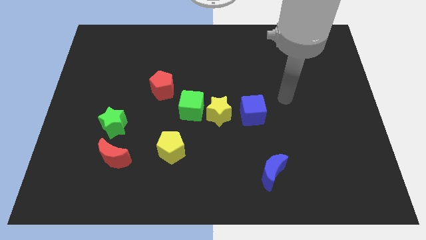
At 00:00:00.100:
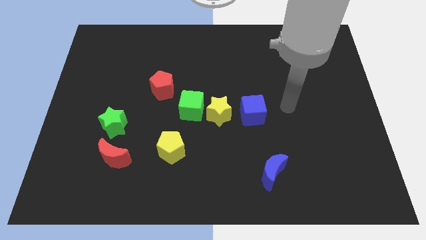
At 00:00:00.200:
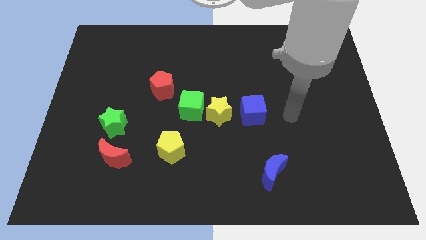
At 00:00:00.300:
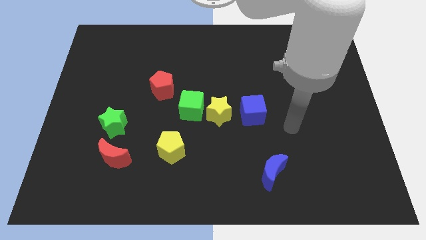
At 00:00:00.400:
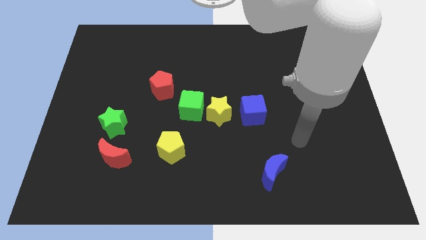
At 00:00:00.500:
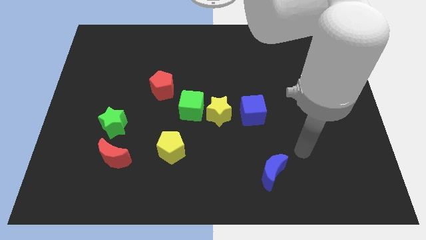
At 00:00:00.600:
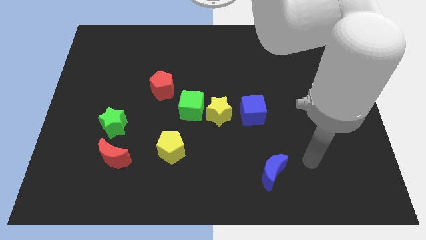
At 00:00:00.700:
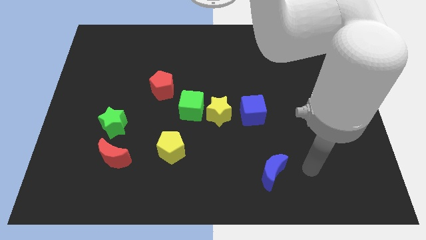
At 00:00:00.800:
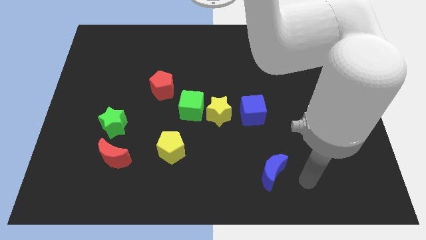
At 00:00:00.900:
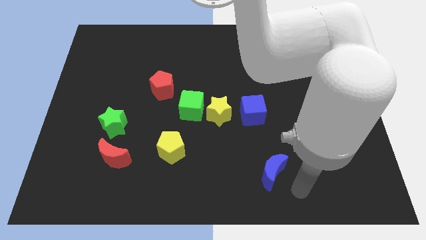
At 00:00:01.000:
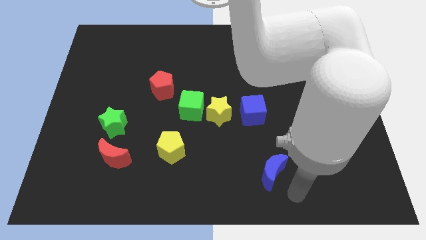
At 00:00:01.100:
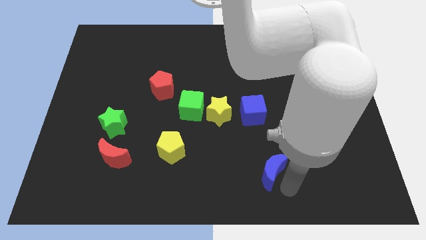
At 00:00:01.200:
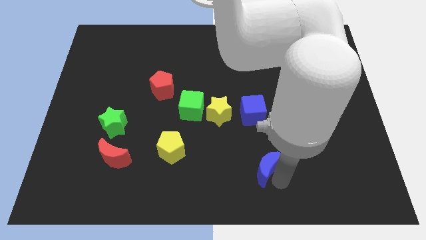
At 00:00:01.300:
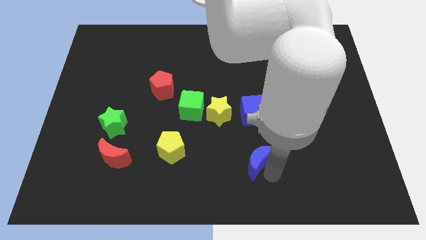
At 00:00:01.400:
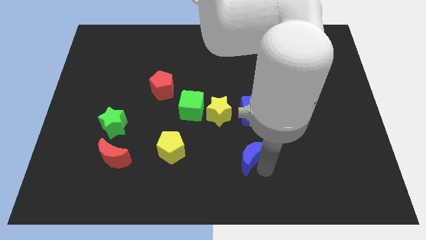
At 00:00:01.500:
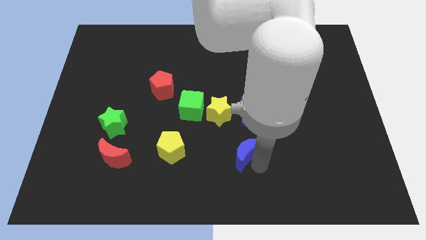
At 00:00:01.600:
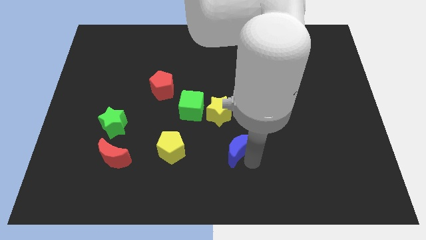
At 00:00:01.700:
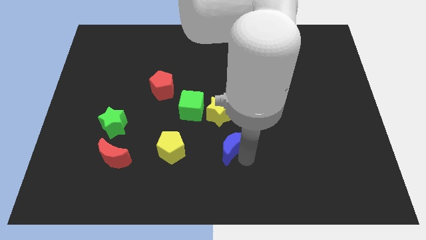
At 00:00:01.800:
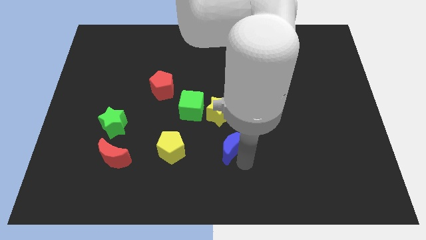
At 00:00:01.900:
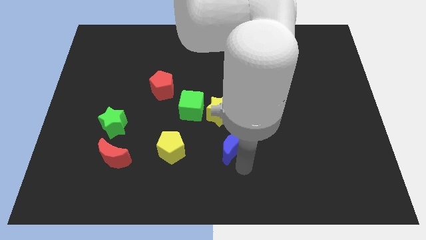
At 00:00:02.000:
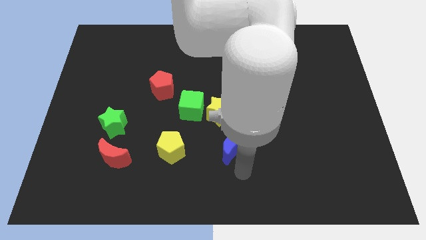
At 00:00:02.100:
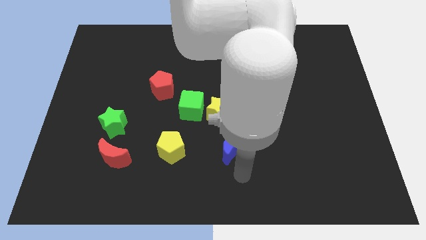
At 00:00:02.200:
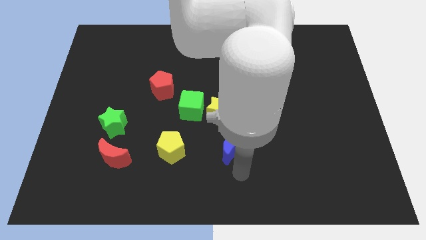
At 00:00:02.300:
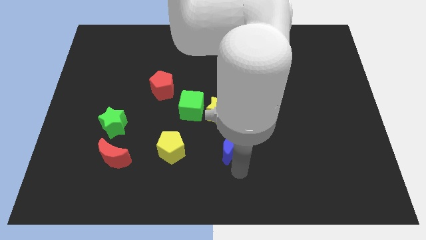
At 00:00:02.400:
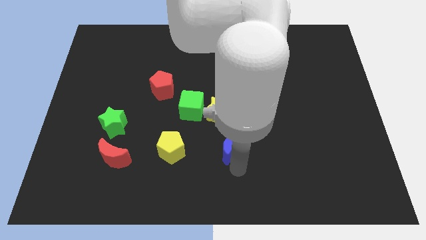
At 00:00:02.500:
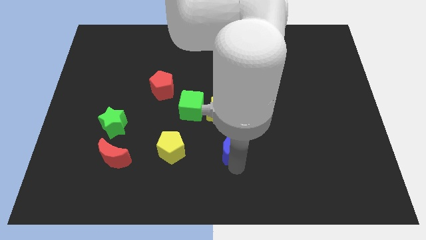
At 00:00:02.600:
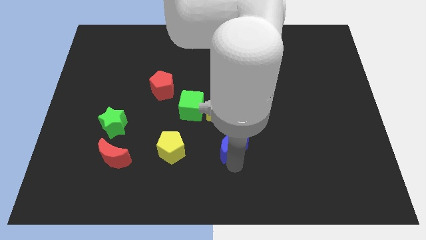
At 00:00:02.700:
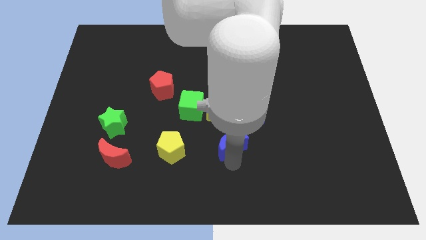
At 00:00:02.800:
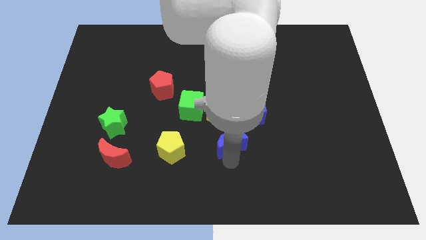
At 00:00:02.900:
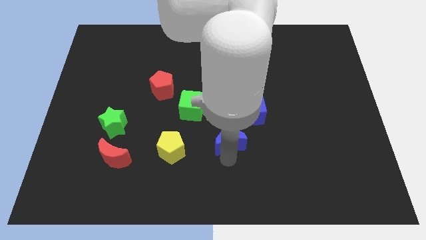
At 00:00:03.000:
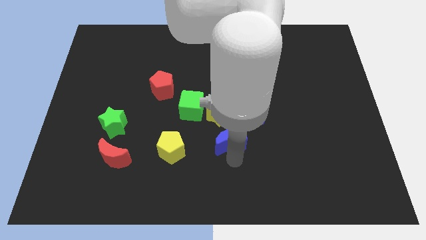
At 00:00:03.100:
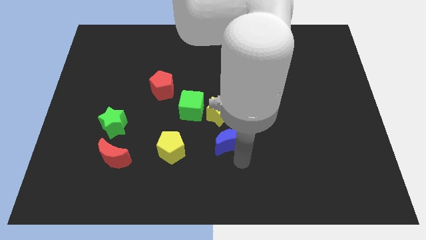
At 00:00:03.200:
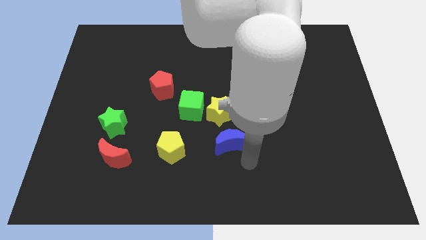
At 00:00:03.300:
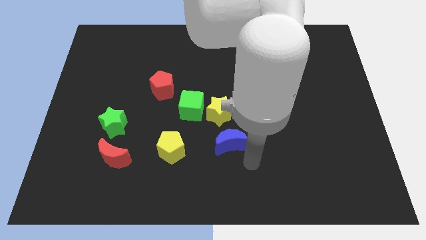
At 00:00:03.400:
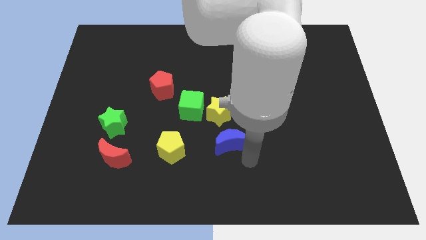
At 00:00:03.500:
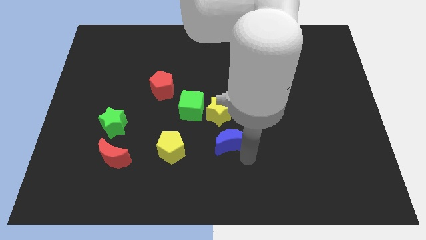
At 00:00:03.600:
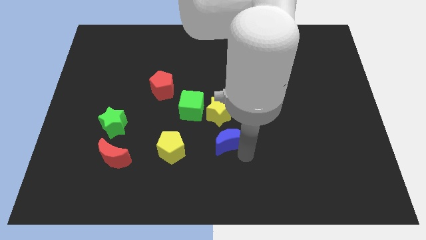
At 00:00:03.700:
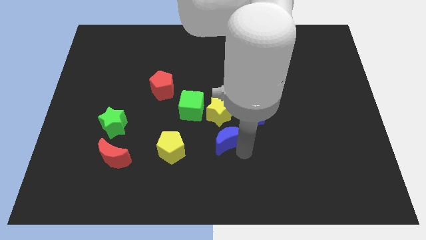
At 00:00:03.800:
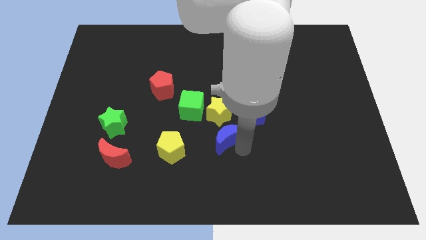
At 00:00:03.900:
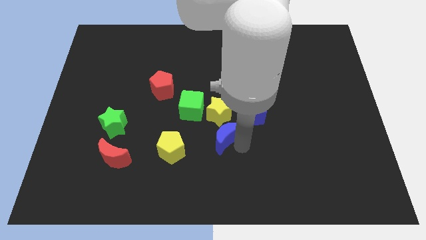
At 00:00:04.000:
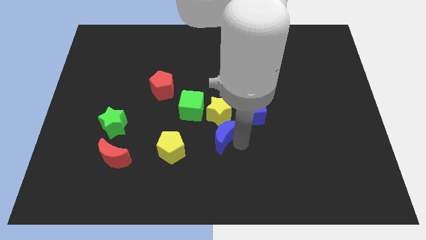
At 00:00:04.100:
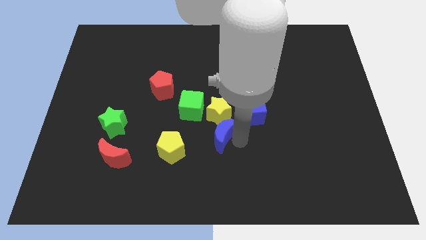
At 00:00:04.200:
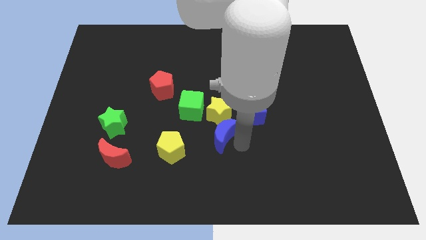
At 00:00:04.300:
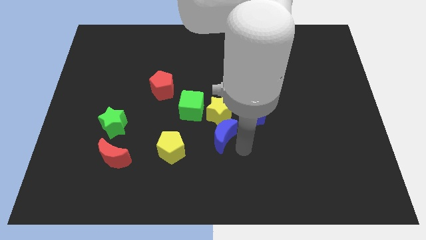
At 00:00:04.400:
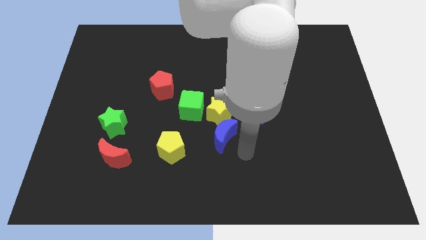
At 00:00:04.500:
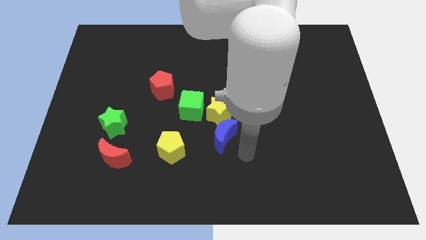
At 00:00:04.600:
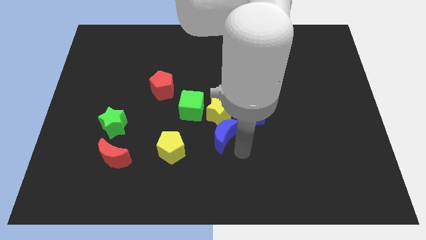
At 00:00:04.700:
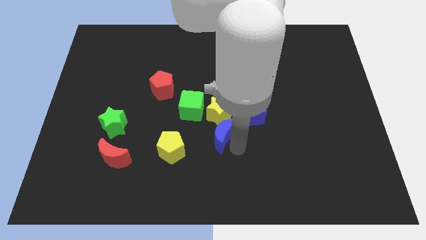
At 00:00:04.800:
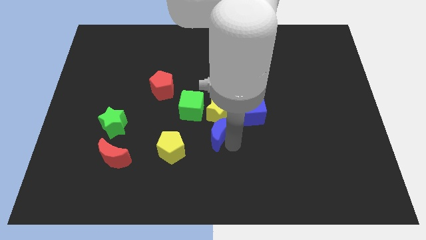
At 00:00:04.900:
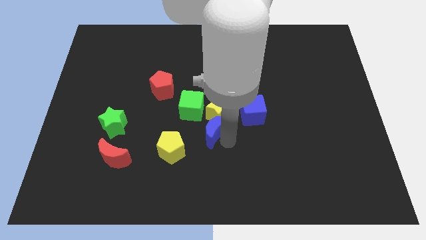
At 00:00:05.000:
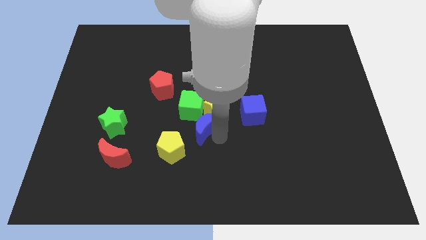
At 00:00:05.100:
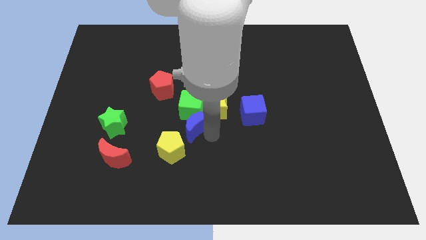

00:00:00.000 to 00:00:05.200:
slide the blue moon next to the green cube

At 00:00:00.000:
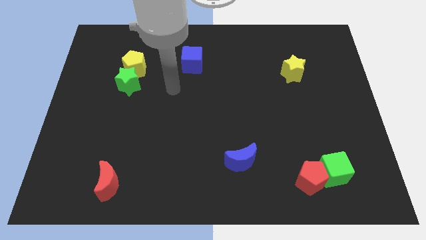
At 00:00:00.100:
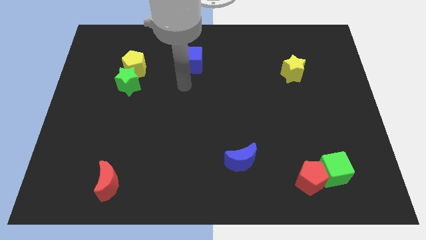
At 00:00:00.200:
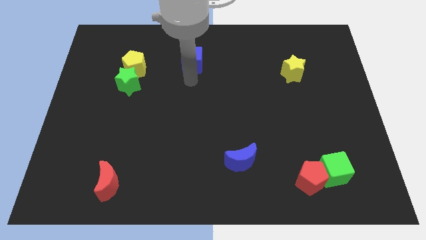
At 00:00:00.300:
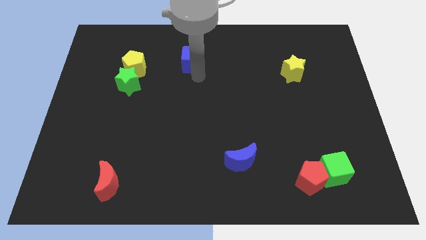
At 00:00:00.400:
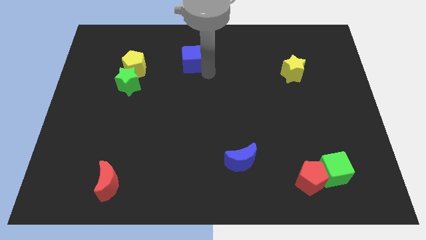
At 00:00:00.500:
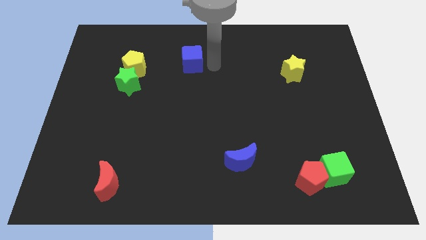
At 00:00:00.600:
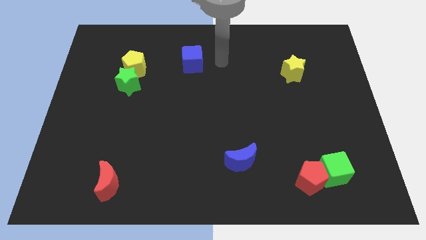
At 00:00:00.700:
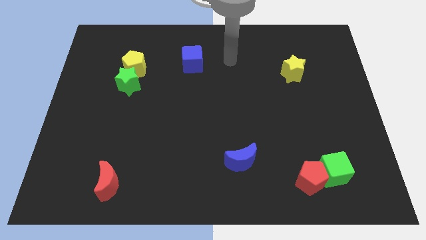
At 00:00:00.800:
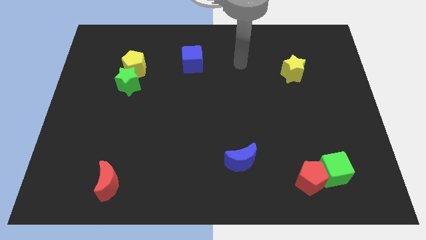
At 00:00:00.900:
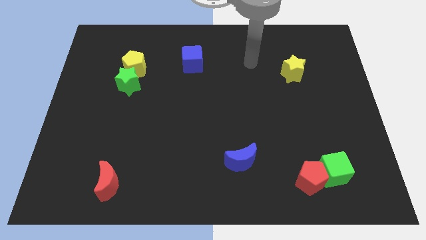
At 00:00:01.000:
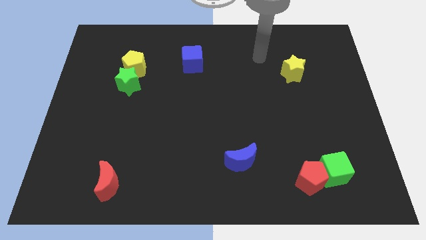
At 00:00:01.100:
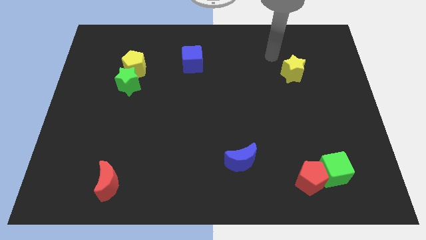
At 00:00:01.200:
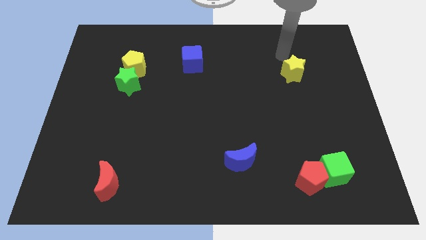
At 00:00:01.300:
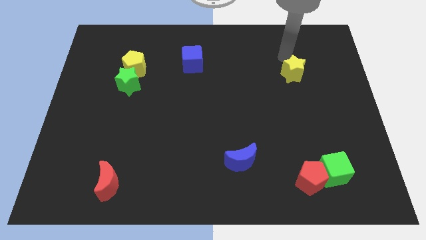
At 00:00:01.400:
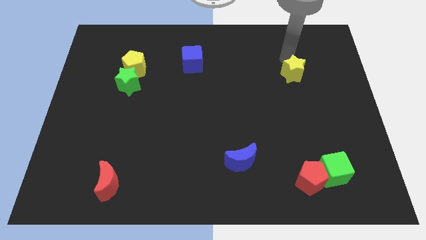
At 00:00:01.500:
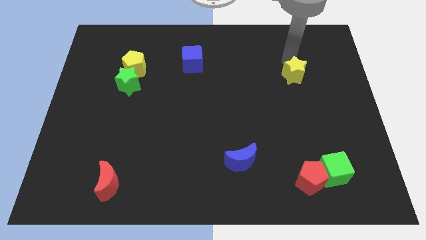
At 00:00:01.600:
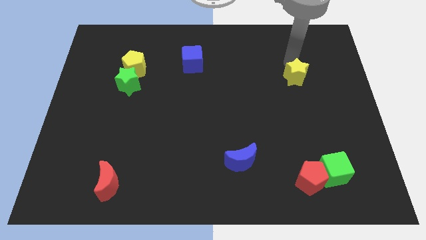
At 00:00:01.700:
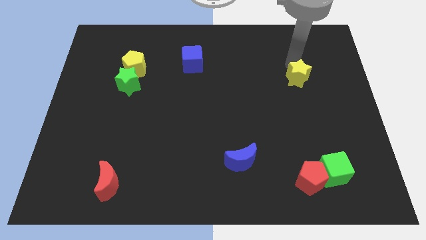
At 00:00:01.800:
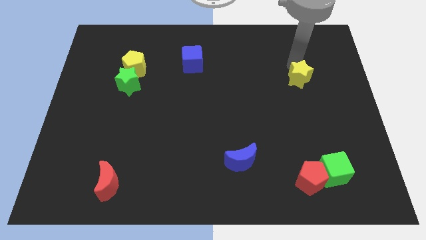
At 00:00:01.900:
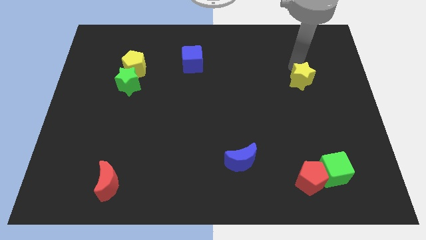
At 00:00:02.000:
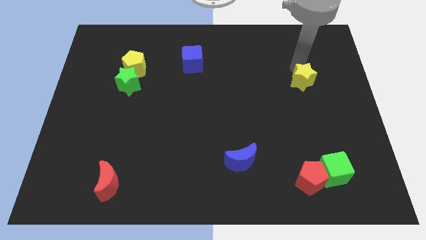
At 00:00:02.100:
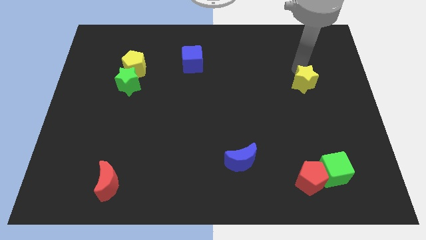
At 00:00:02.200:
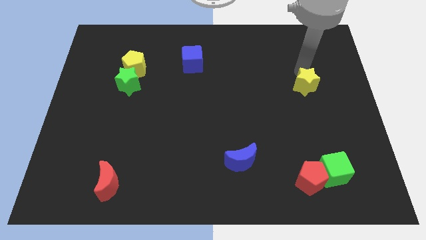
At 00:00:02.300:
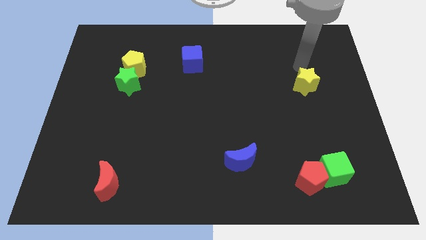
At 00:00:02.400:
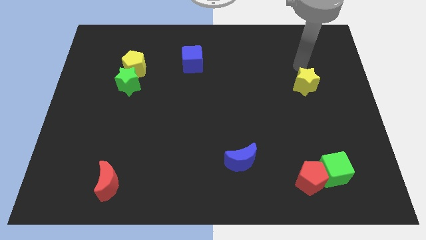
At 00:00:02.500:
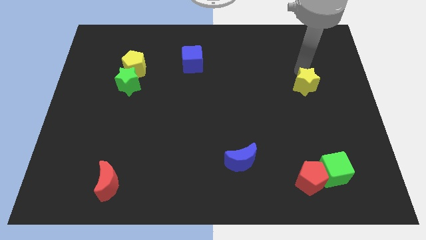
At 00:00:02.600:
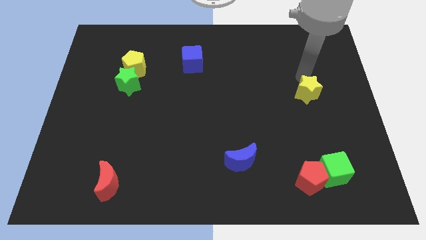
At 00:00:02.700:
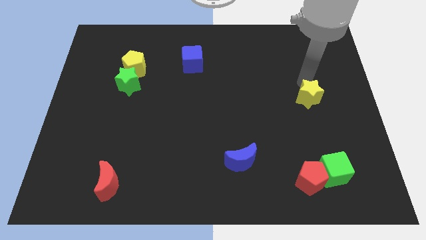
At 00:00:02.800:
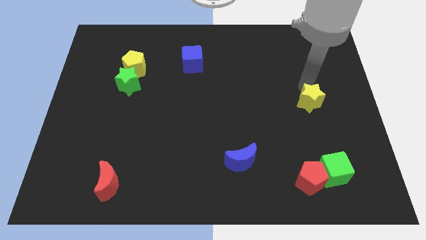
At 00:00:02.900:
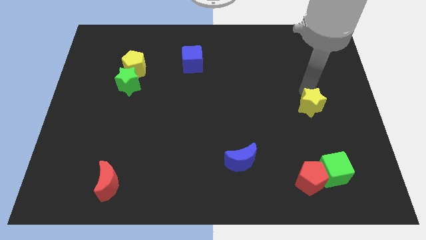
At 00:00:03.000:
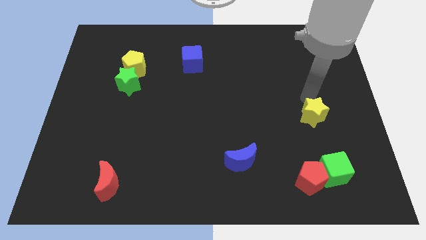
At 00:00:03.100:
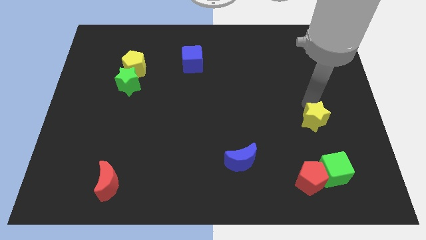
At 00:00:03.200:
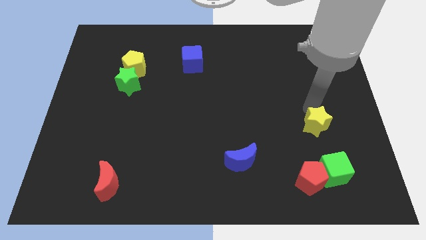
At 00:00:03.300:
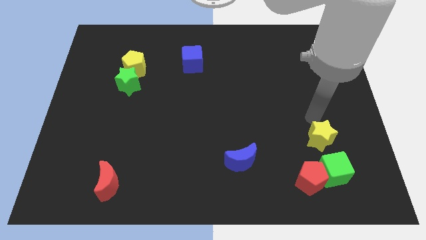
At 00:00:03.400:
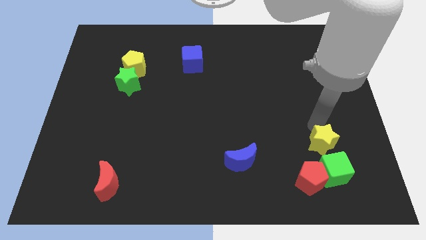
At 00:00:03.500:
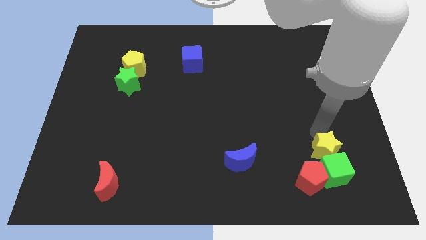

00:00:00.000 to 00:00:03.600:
slide the yellow star next to the green cube
